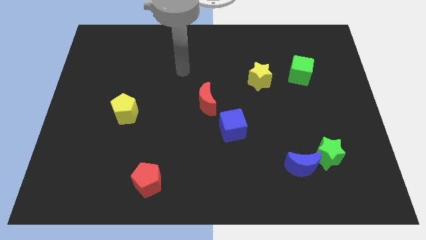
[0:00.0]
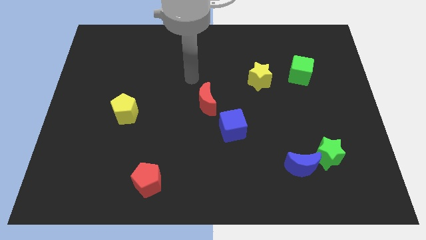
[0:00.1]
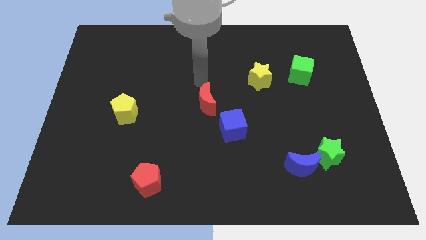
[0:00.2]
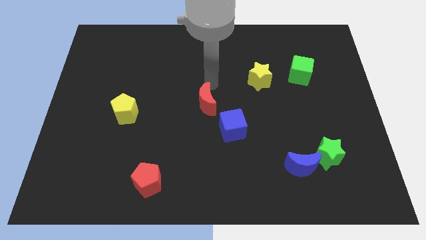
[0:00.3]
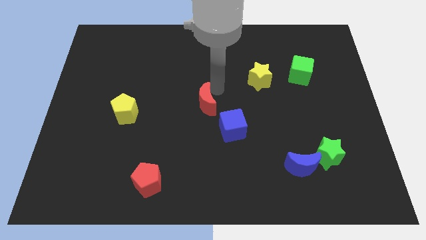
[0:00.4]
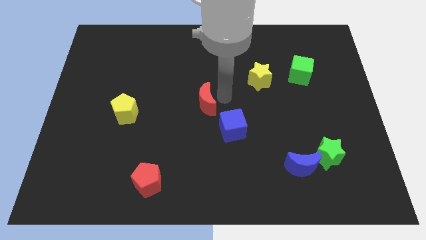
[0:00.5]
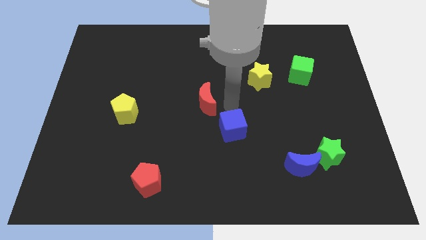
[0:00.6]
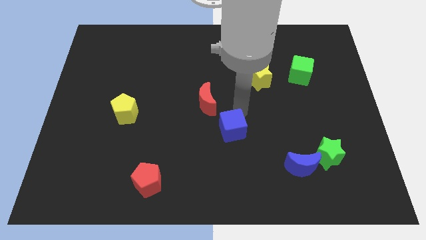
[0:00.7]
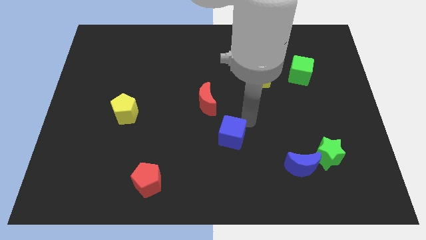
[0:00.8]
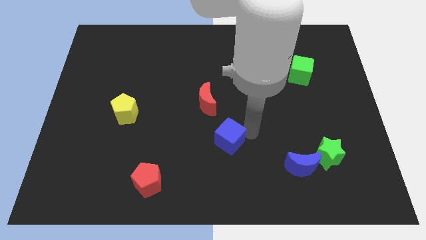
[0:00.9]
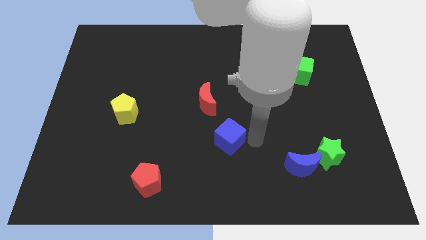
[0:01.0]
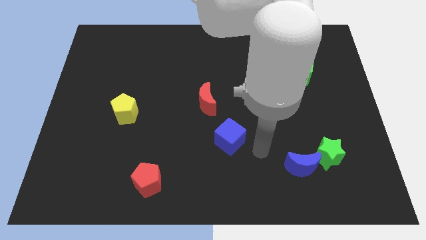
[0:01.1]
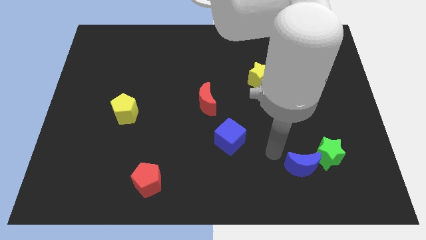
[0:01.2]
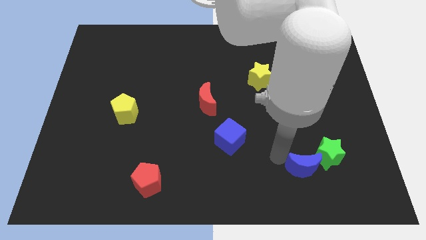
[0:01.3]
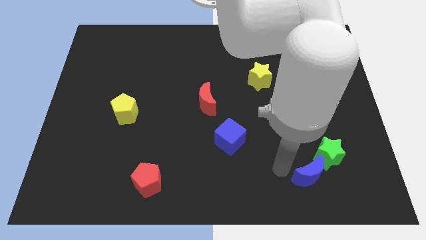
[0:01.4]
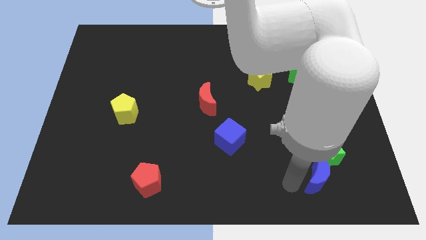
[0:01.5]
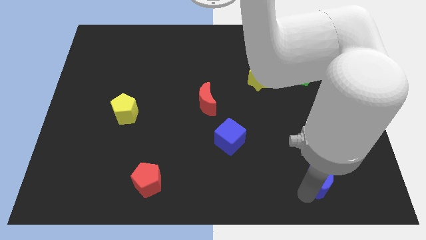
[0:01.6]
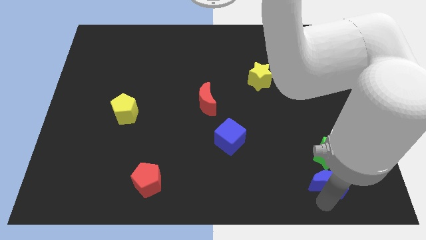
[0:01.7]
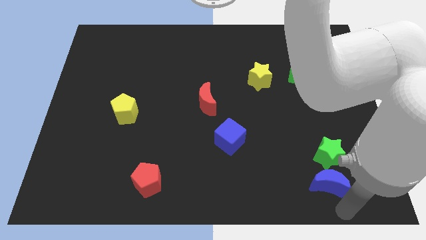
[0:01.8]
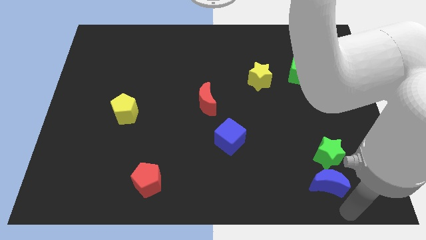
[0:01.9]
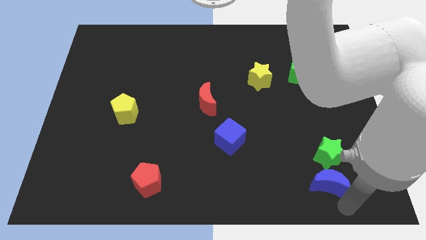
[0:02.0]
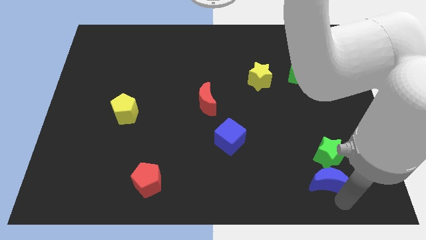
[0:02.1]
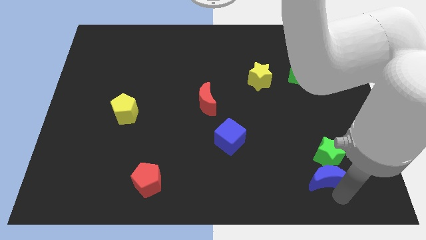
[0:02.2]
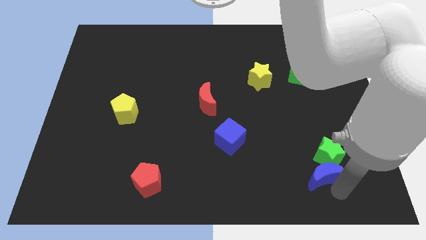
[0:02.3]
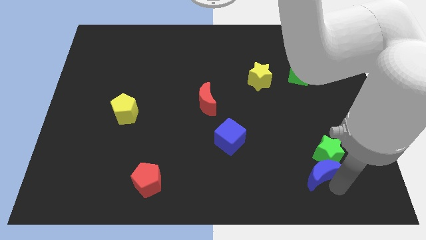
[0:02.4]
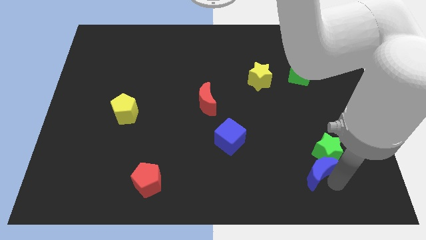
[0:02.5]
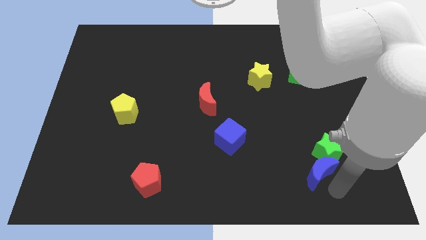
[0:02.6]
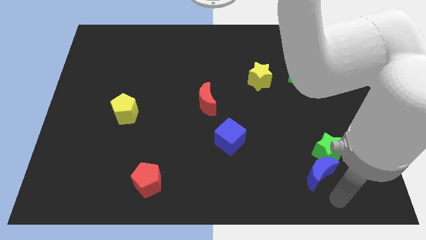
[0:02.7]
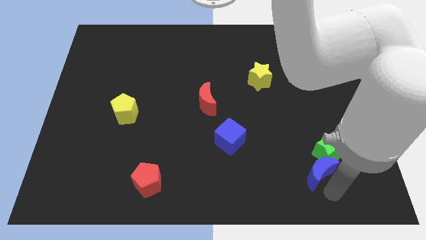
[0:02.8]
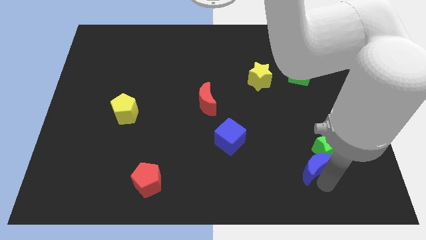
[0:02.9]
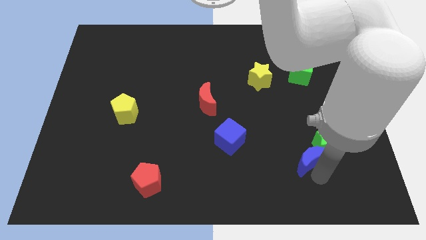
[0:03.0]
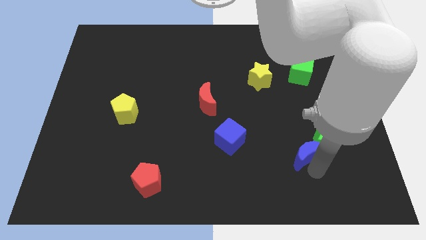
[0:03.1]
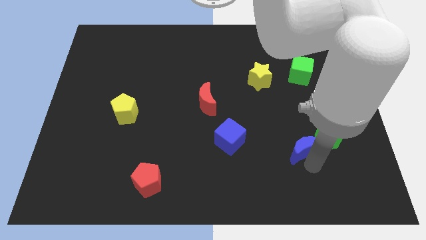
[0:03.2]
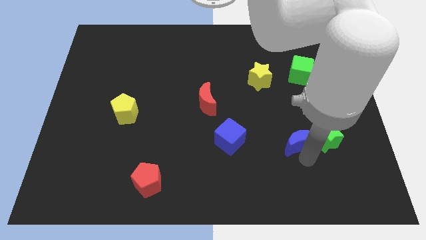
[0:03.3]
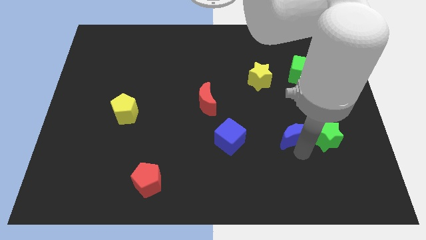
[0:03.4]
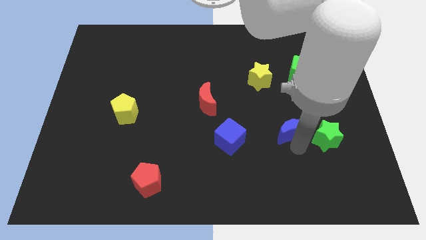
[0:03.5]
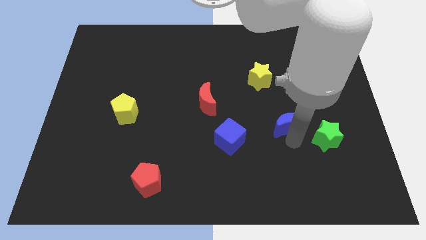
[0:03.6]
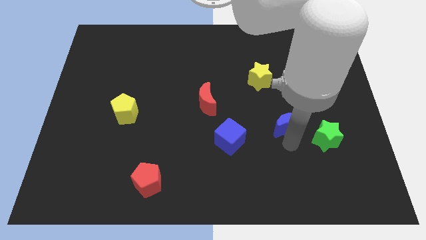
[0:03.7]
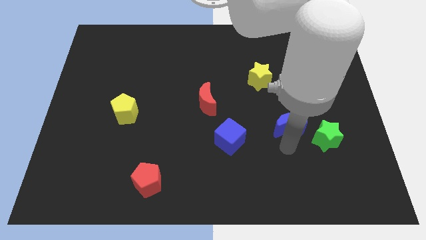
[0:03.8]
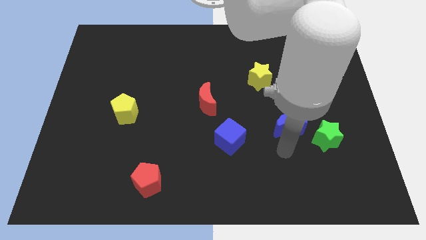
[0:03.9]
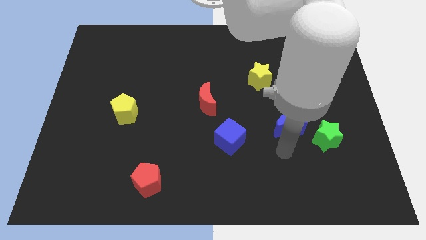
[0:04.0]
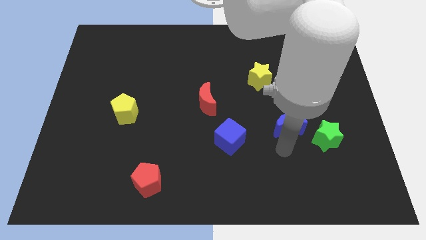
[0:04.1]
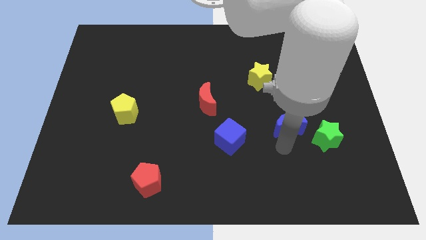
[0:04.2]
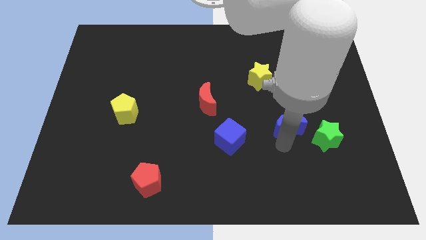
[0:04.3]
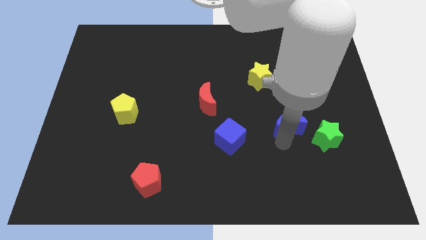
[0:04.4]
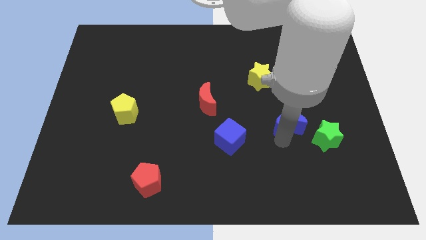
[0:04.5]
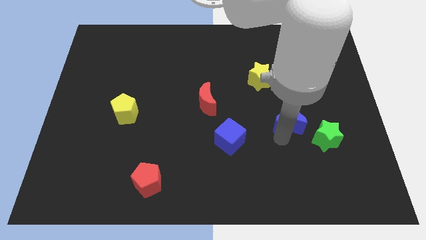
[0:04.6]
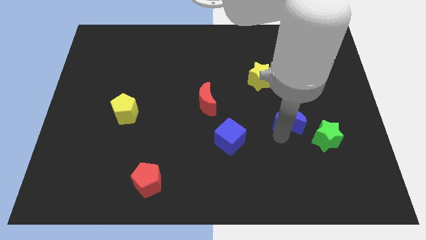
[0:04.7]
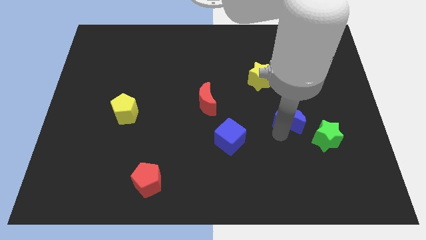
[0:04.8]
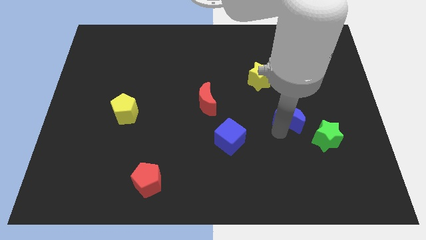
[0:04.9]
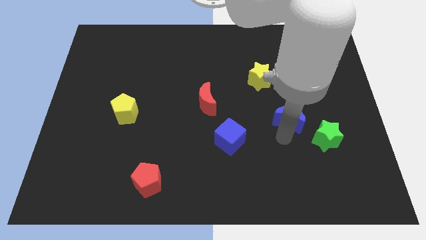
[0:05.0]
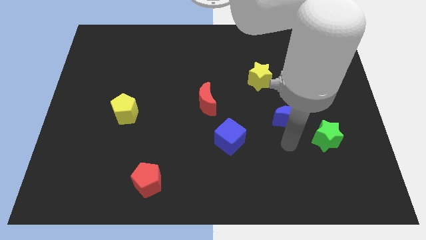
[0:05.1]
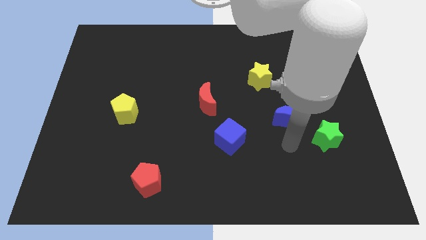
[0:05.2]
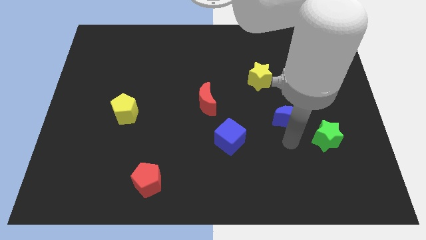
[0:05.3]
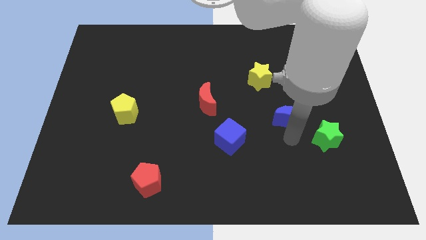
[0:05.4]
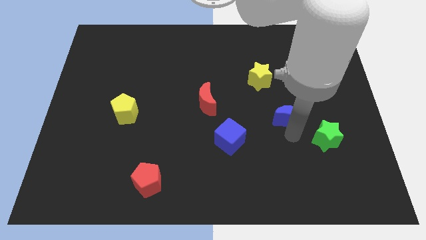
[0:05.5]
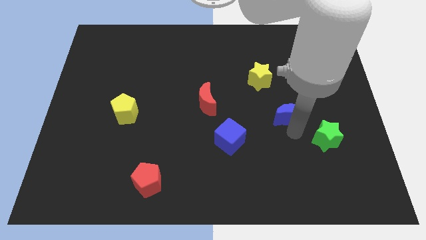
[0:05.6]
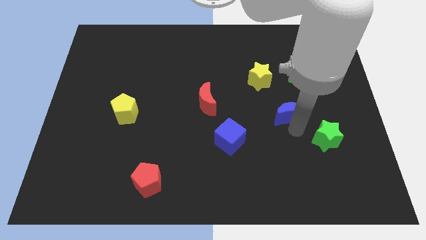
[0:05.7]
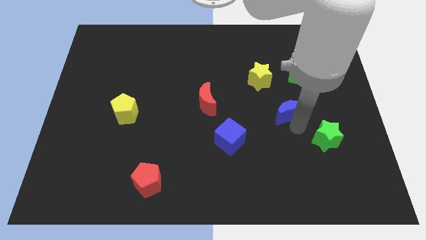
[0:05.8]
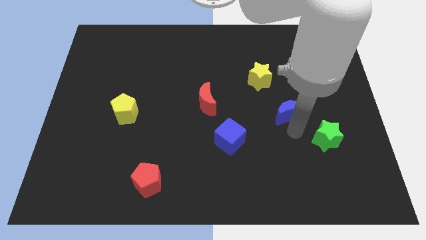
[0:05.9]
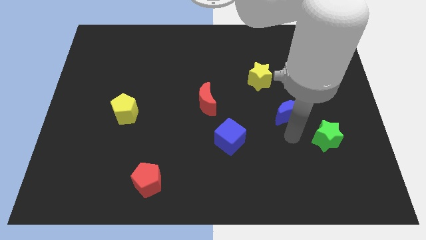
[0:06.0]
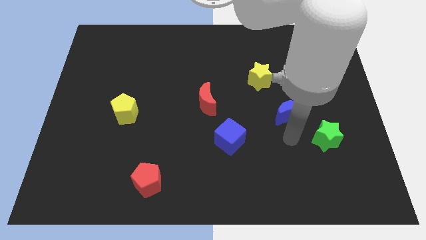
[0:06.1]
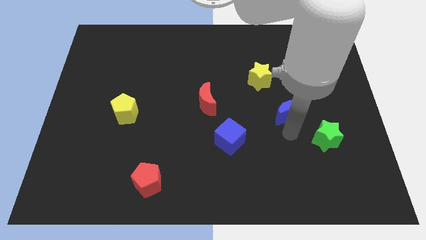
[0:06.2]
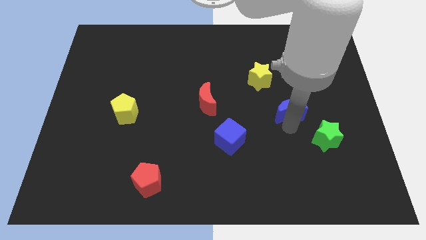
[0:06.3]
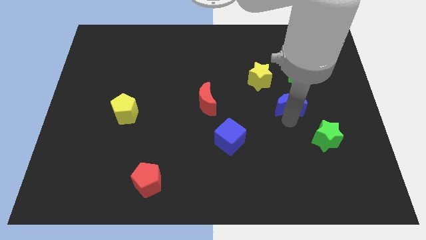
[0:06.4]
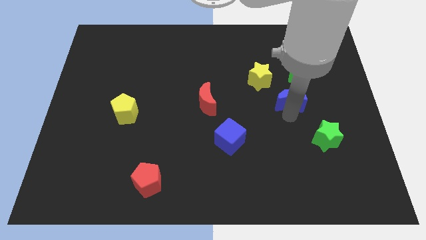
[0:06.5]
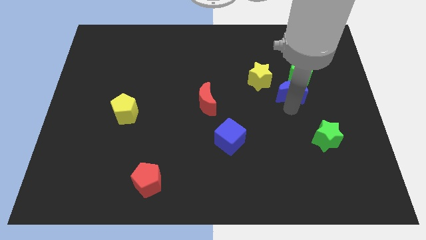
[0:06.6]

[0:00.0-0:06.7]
push the blue moon upwards

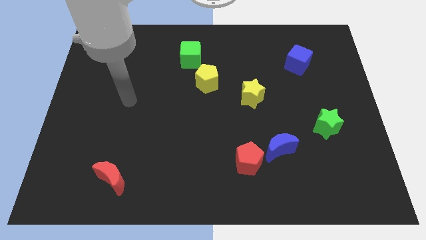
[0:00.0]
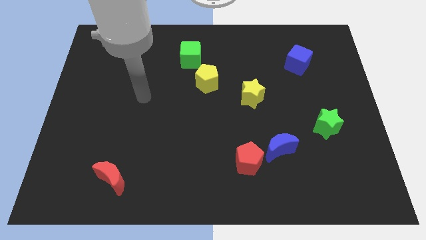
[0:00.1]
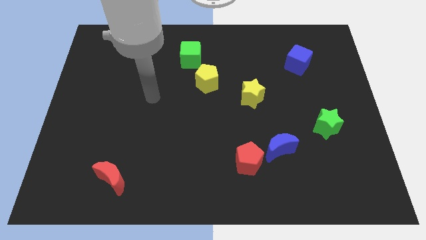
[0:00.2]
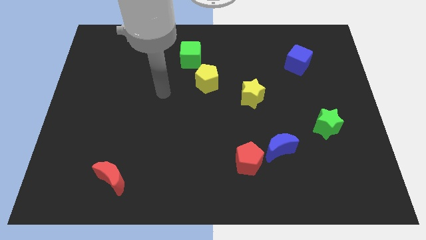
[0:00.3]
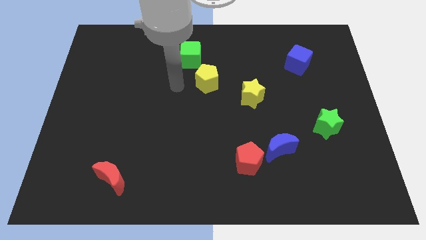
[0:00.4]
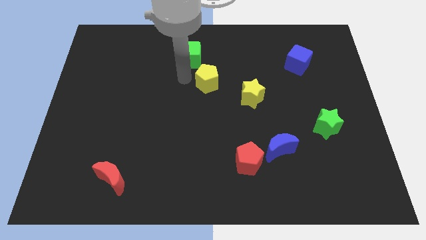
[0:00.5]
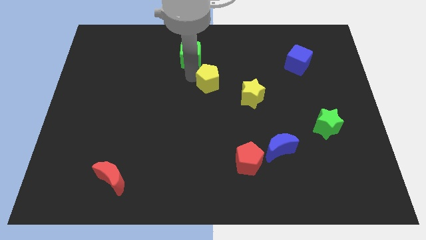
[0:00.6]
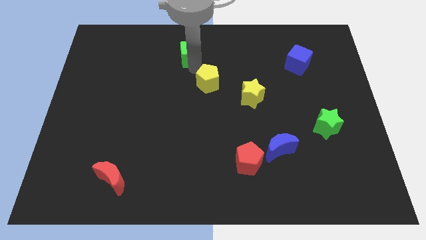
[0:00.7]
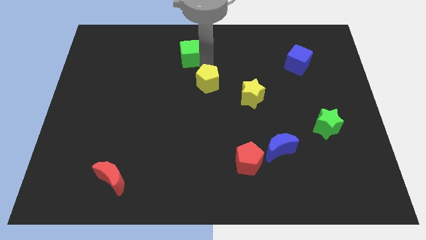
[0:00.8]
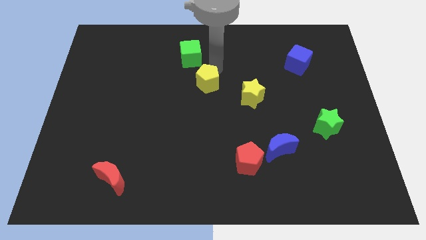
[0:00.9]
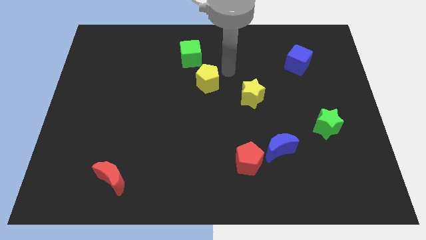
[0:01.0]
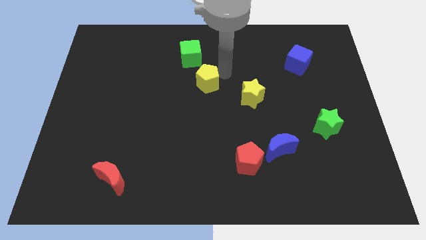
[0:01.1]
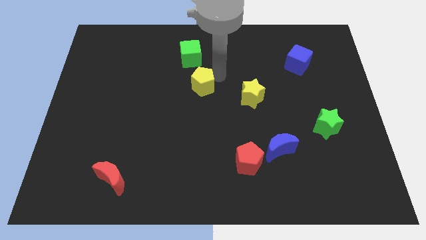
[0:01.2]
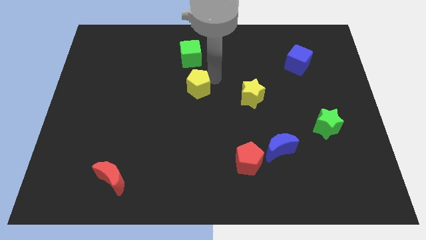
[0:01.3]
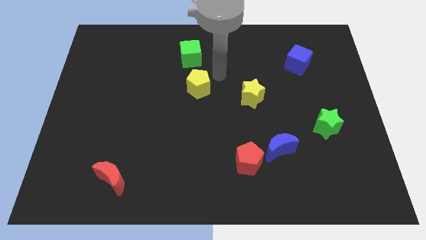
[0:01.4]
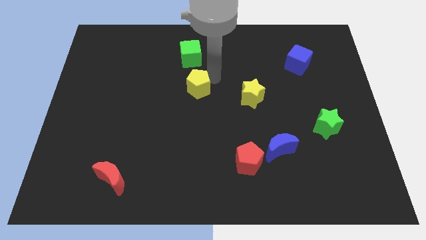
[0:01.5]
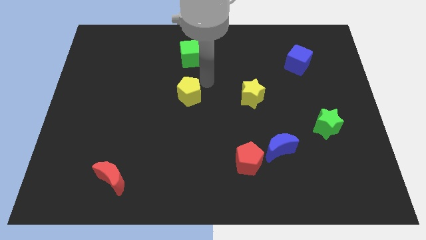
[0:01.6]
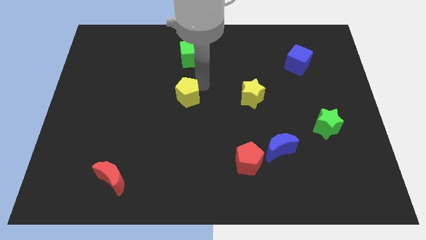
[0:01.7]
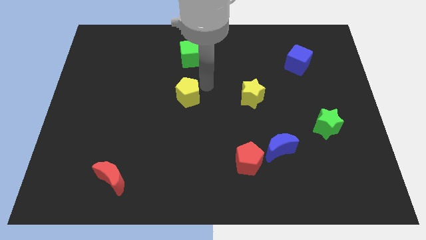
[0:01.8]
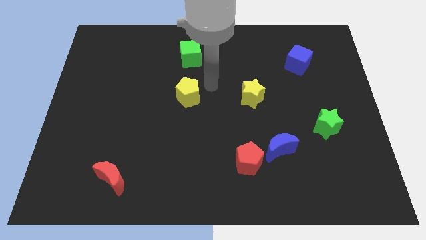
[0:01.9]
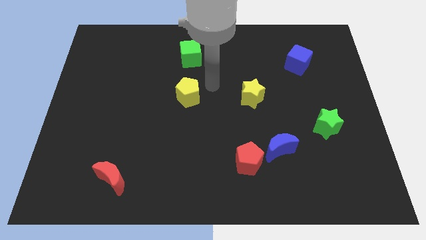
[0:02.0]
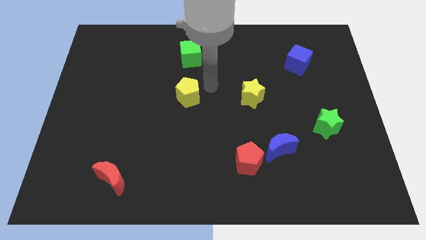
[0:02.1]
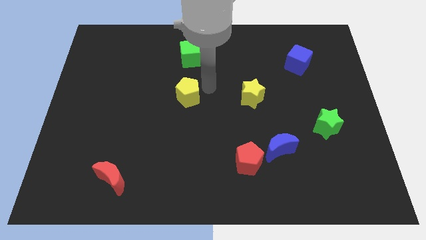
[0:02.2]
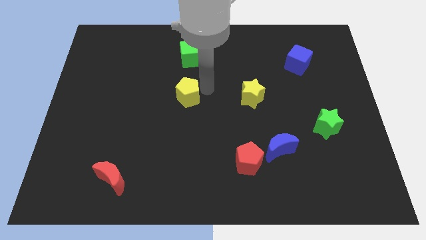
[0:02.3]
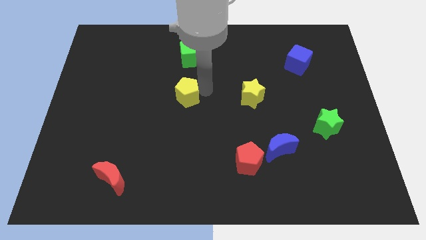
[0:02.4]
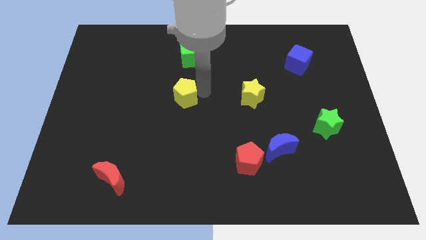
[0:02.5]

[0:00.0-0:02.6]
slide the yellow pentagon a bit down and to the left diagonally
